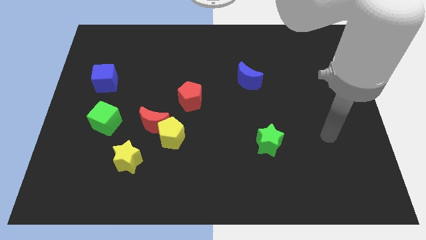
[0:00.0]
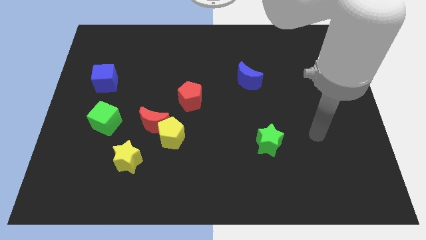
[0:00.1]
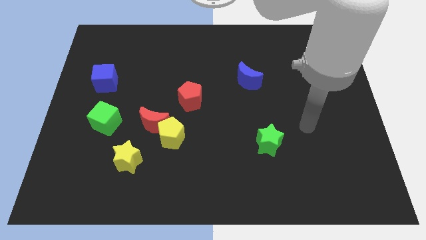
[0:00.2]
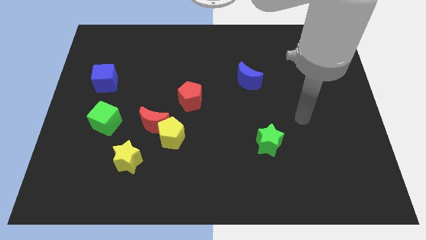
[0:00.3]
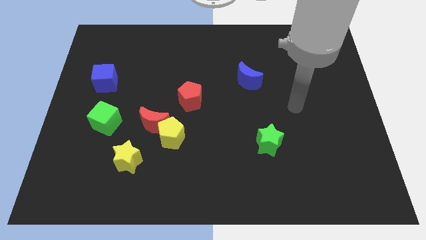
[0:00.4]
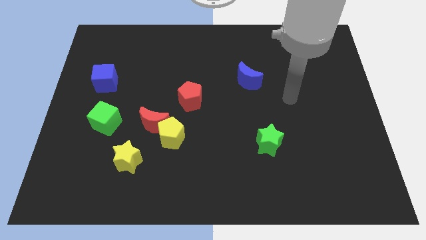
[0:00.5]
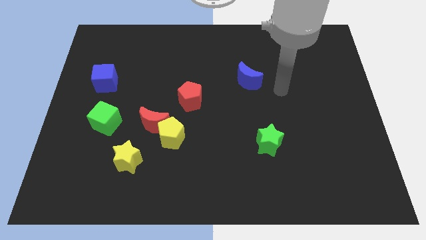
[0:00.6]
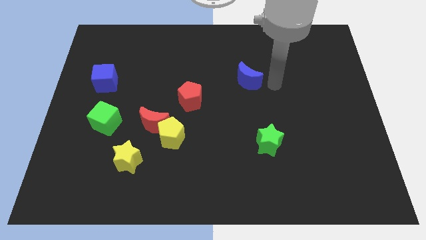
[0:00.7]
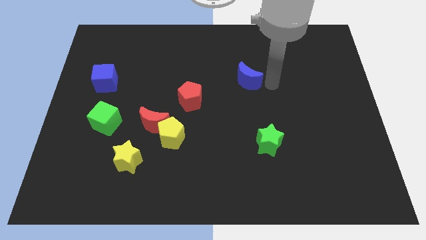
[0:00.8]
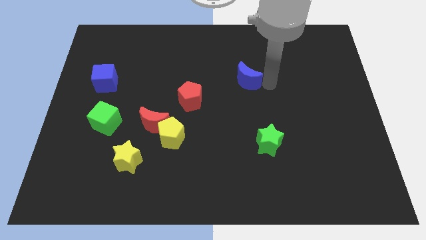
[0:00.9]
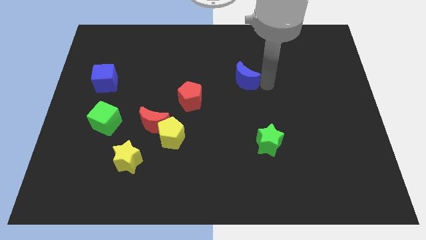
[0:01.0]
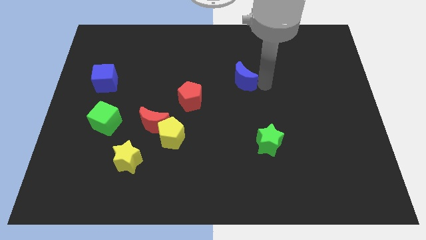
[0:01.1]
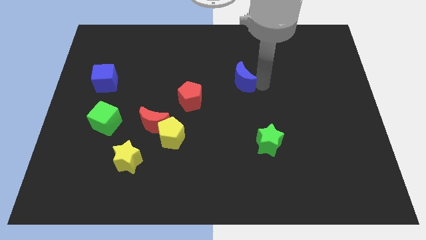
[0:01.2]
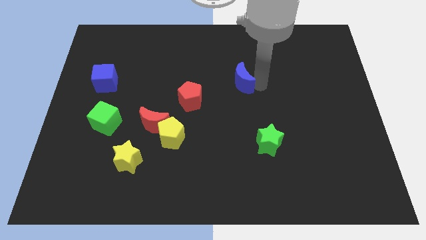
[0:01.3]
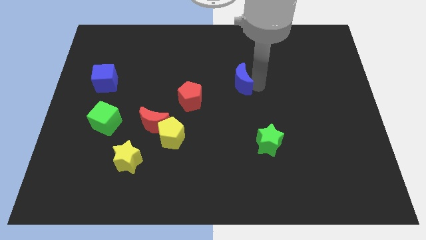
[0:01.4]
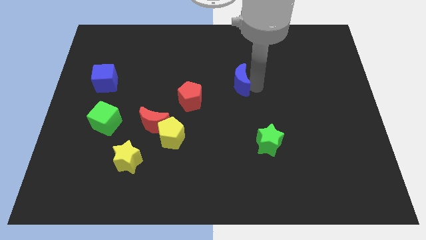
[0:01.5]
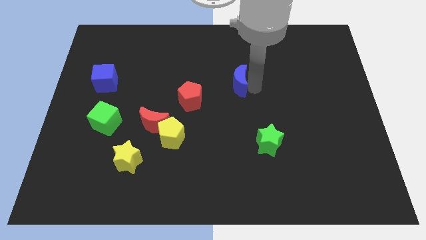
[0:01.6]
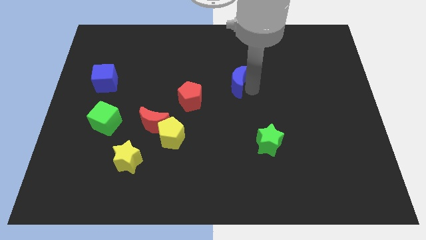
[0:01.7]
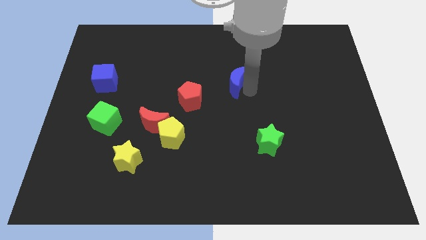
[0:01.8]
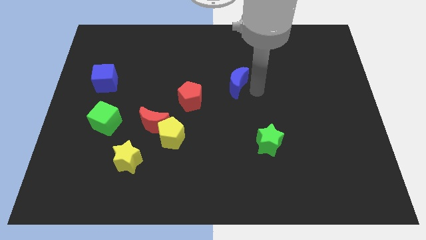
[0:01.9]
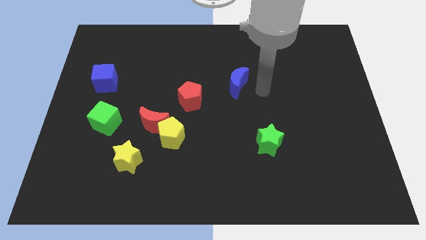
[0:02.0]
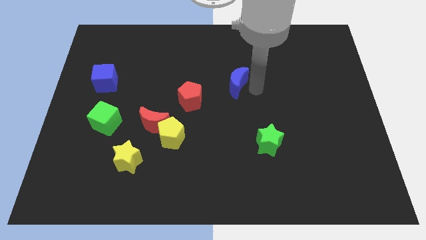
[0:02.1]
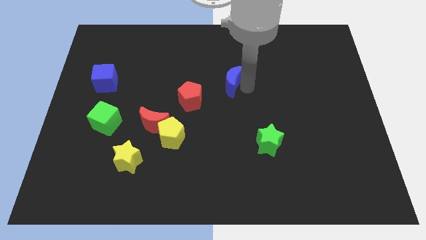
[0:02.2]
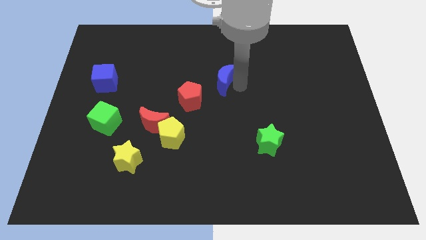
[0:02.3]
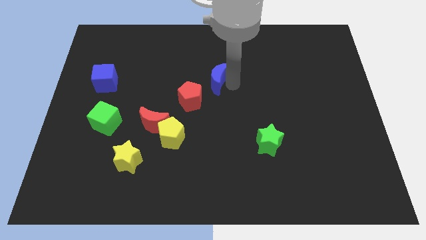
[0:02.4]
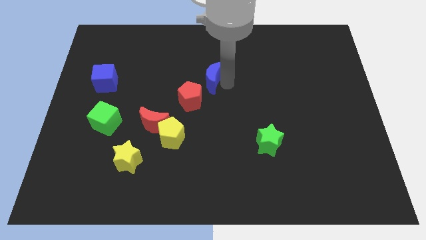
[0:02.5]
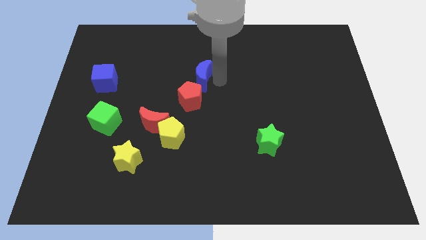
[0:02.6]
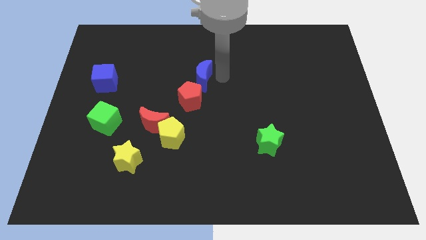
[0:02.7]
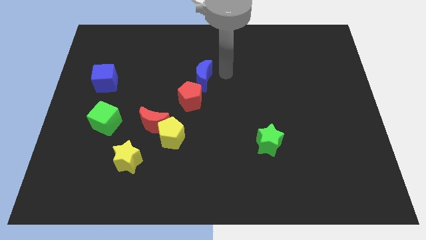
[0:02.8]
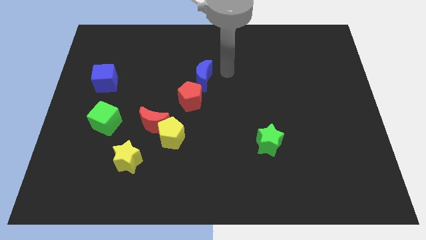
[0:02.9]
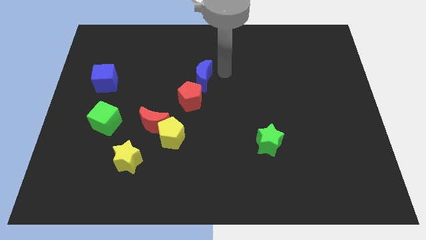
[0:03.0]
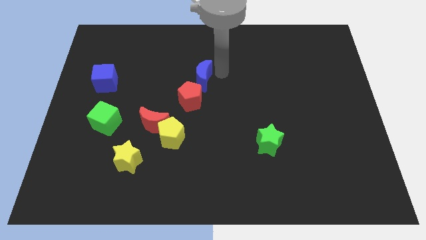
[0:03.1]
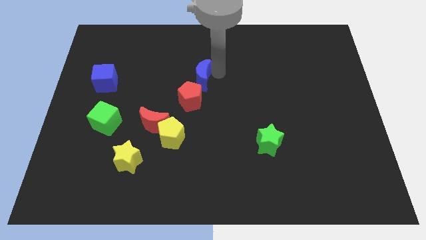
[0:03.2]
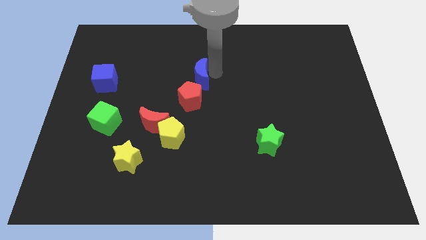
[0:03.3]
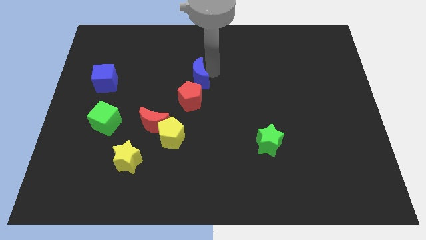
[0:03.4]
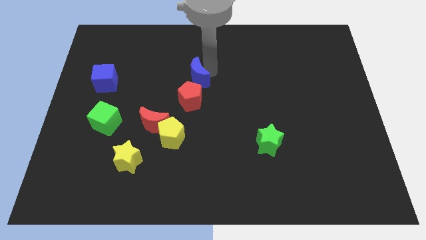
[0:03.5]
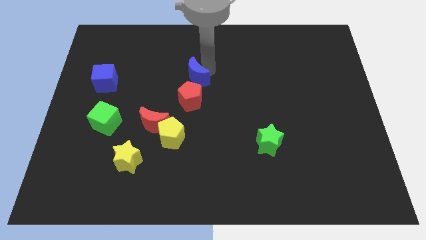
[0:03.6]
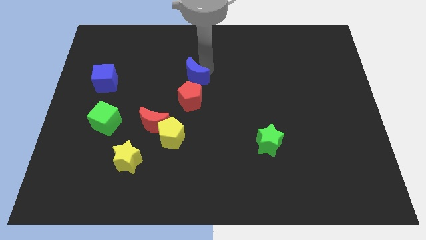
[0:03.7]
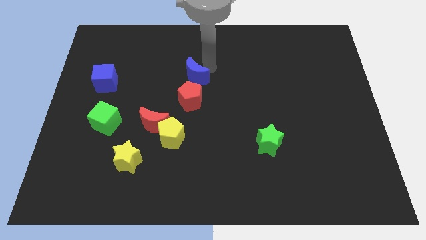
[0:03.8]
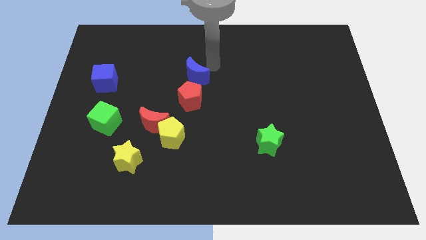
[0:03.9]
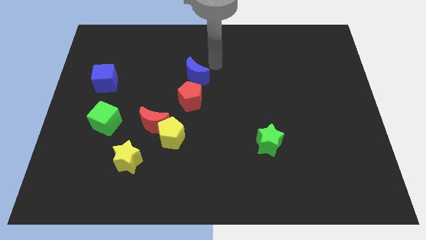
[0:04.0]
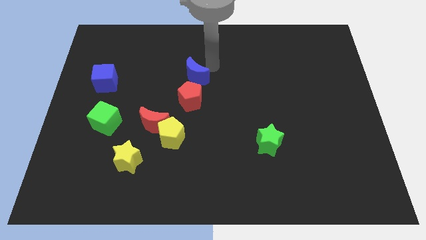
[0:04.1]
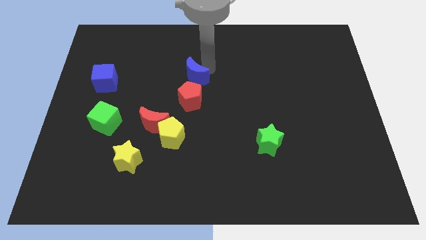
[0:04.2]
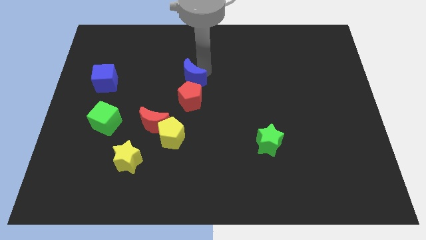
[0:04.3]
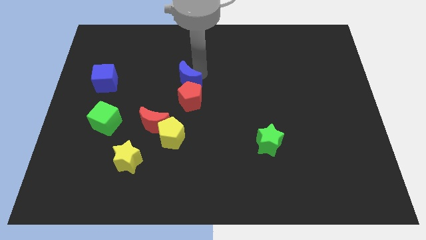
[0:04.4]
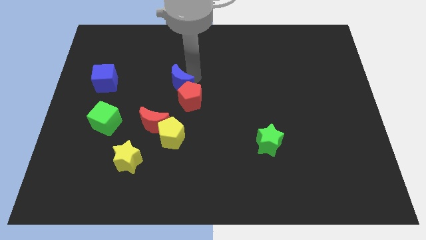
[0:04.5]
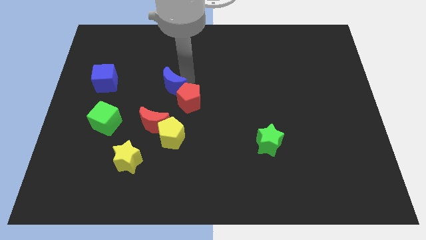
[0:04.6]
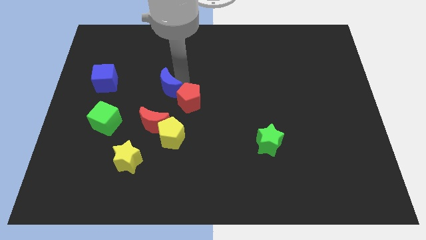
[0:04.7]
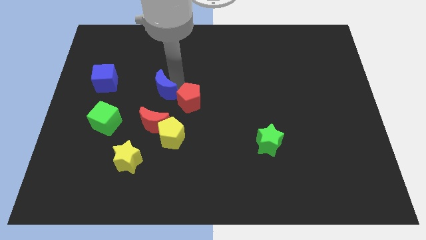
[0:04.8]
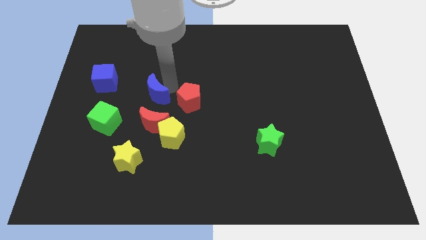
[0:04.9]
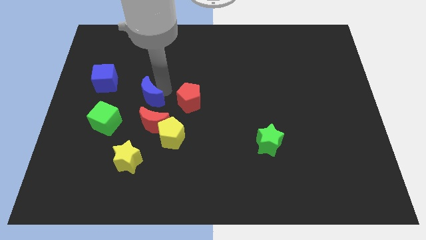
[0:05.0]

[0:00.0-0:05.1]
push the blue moon to the top left of the red moon
